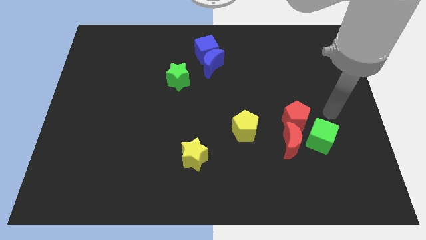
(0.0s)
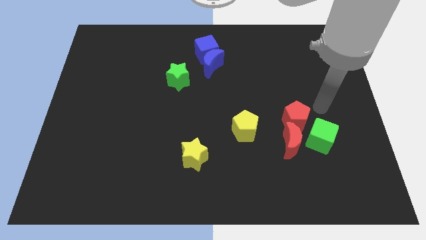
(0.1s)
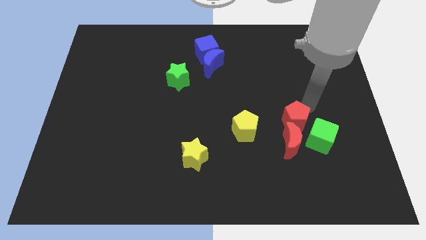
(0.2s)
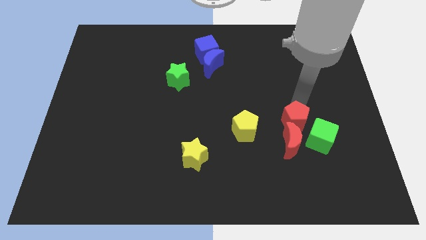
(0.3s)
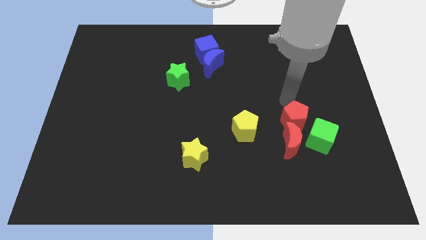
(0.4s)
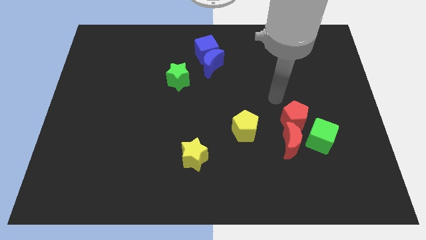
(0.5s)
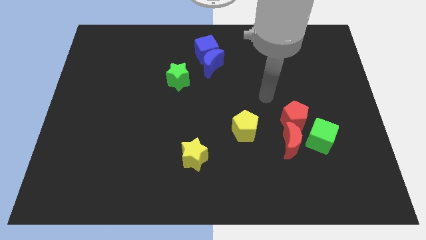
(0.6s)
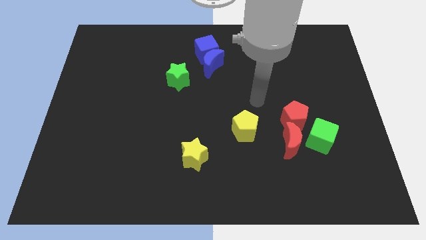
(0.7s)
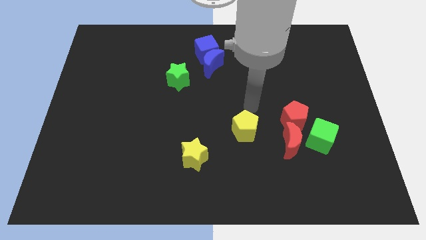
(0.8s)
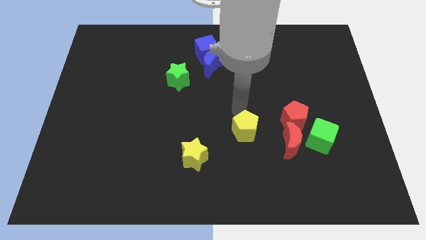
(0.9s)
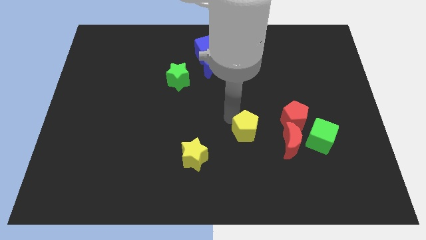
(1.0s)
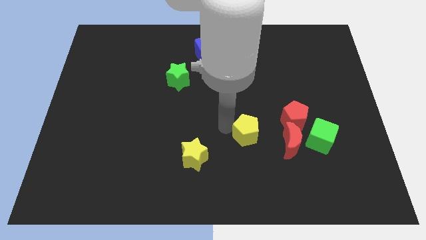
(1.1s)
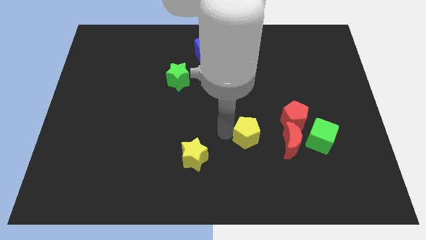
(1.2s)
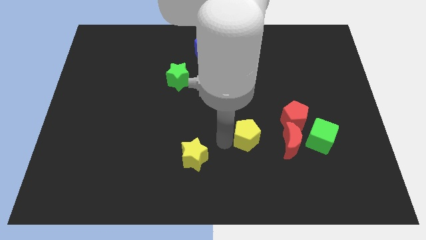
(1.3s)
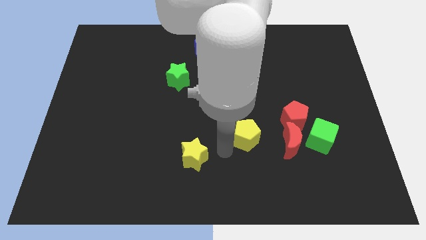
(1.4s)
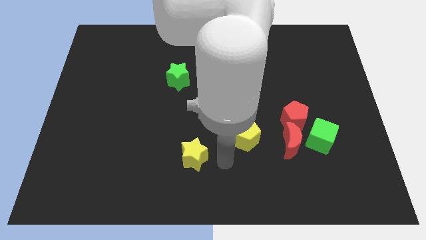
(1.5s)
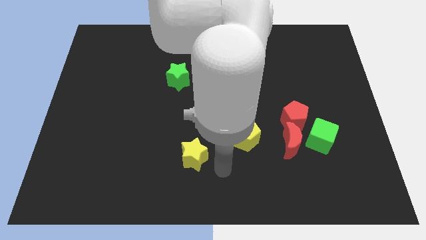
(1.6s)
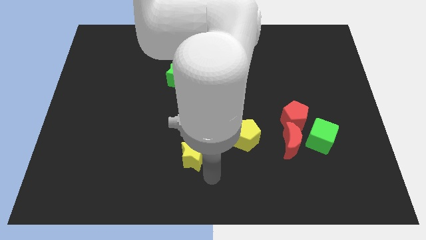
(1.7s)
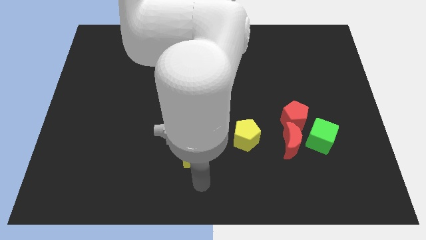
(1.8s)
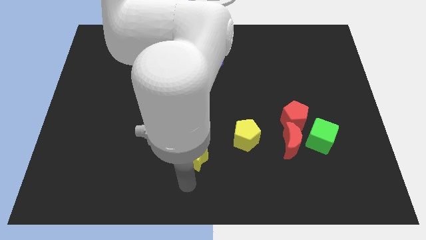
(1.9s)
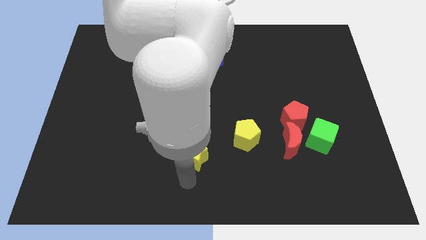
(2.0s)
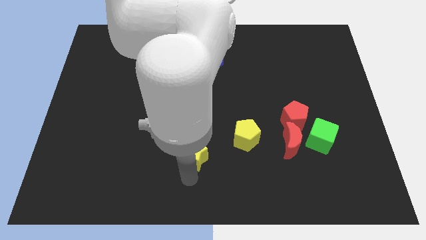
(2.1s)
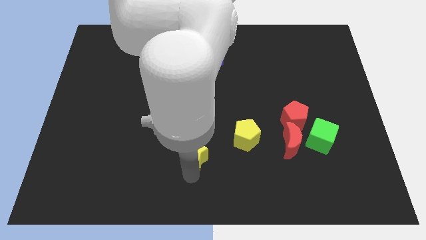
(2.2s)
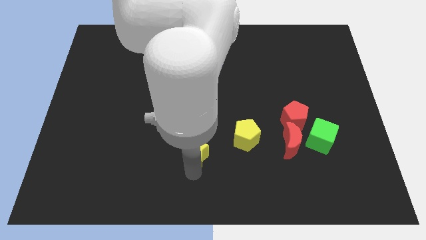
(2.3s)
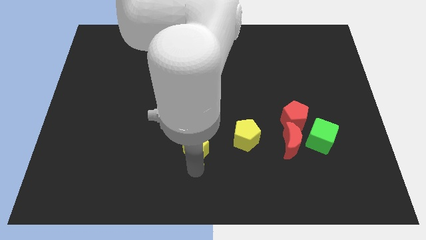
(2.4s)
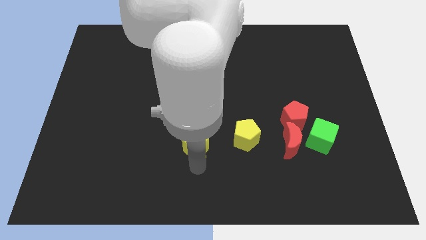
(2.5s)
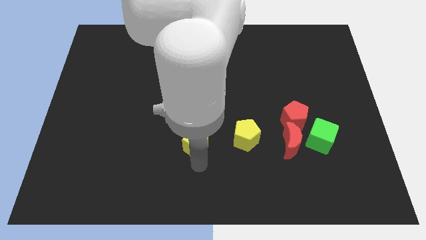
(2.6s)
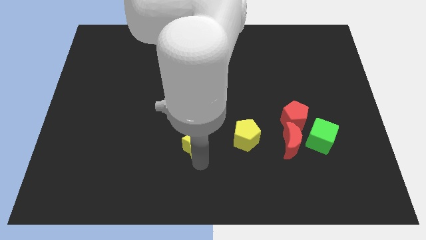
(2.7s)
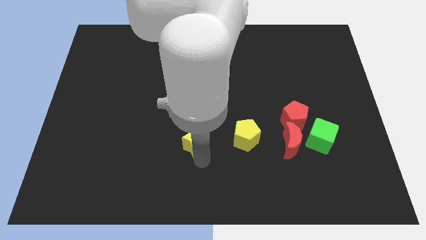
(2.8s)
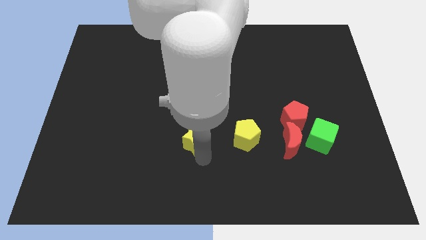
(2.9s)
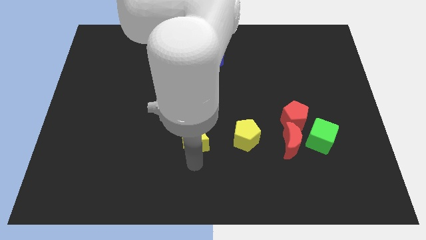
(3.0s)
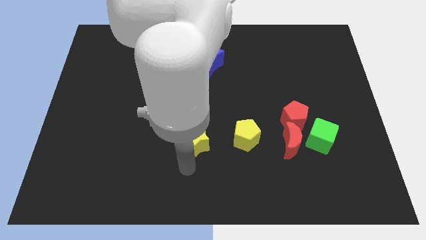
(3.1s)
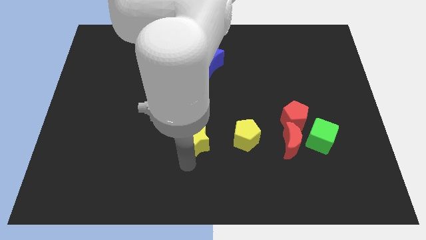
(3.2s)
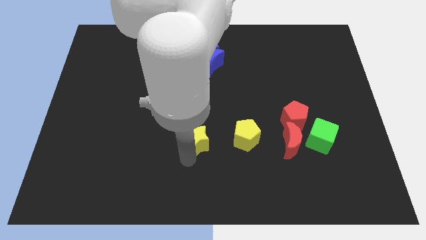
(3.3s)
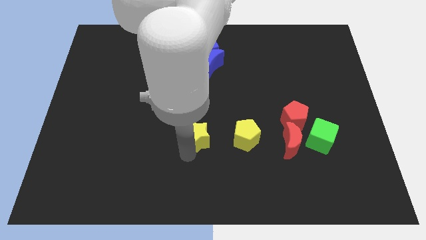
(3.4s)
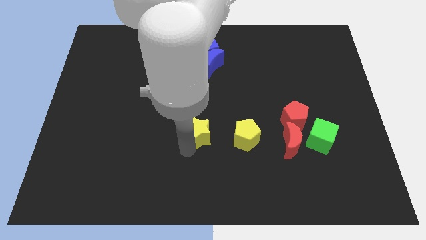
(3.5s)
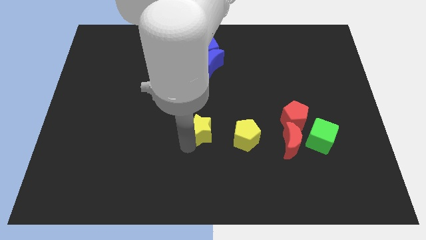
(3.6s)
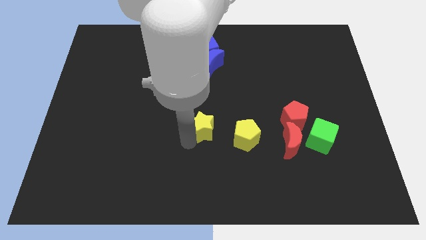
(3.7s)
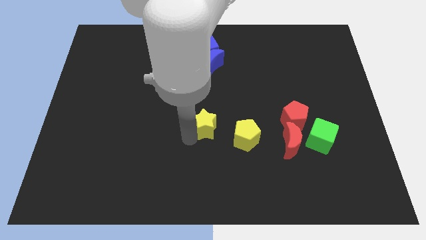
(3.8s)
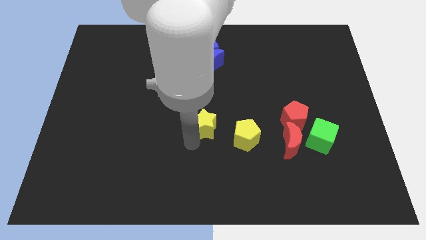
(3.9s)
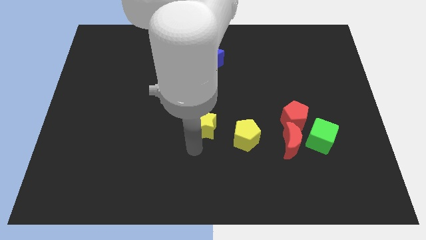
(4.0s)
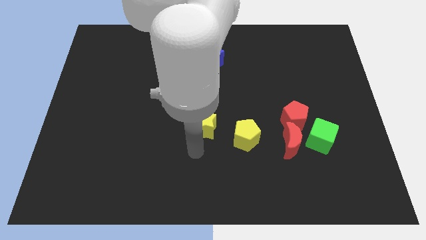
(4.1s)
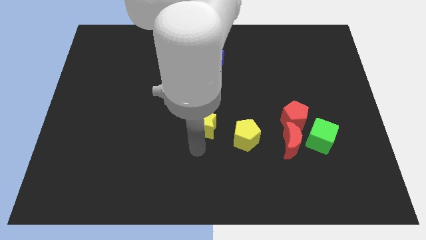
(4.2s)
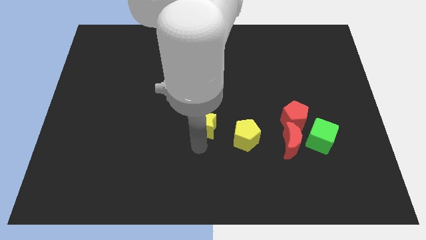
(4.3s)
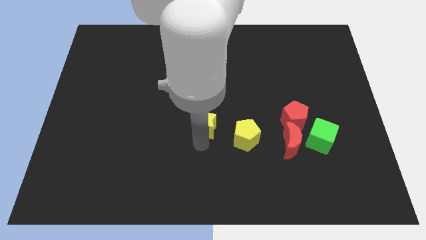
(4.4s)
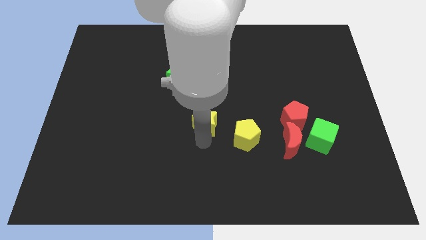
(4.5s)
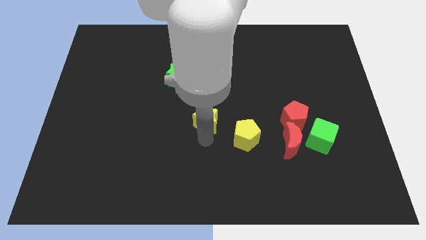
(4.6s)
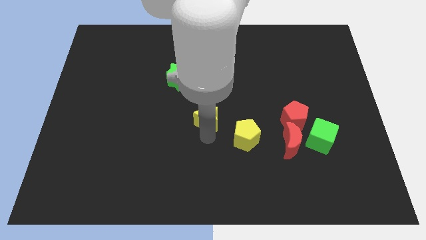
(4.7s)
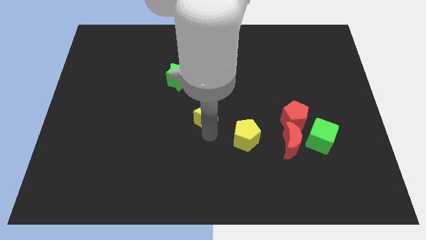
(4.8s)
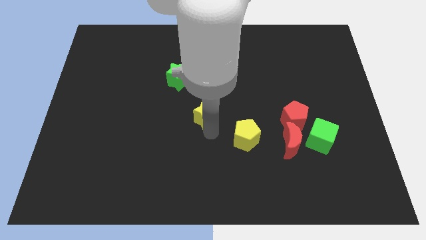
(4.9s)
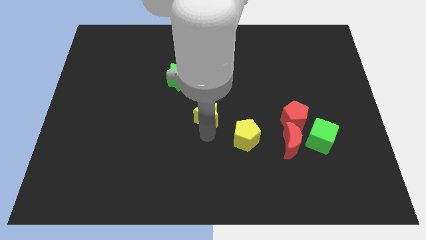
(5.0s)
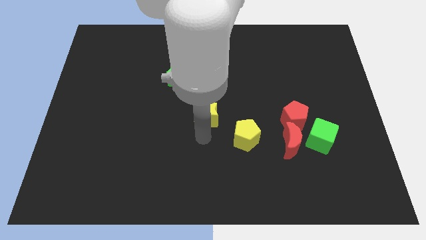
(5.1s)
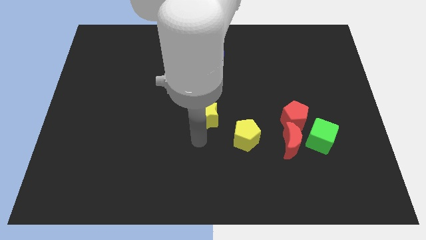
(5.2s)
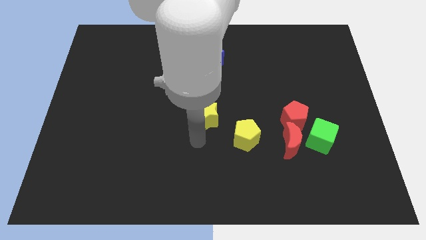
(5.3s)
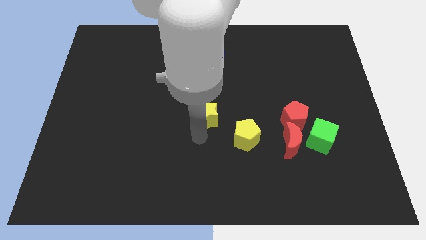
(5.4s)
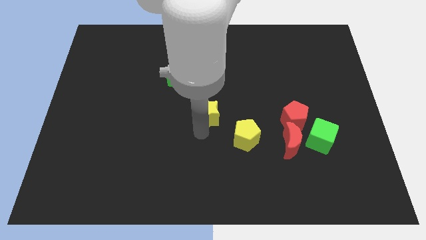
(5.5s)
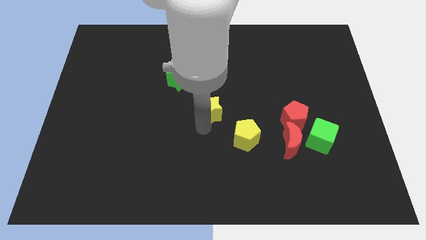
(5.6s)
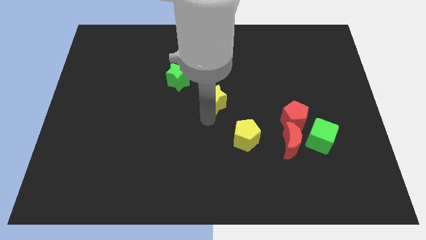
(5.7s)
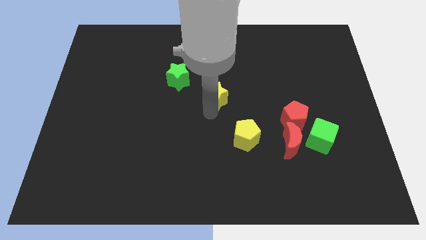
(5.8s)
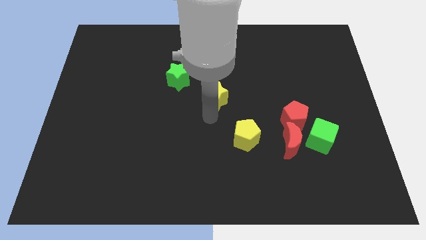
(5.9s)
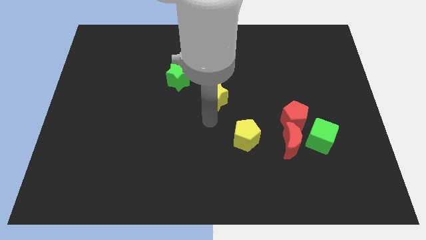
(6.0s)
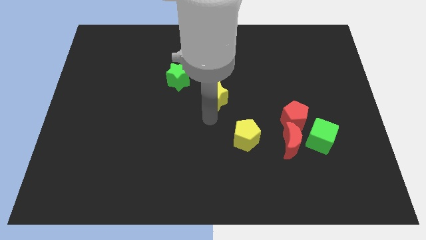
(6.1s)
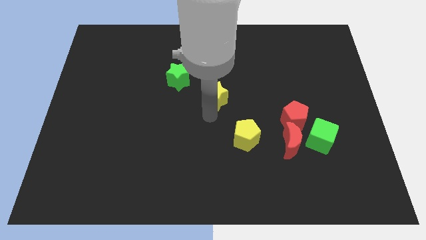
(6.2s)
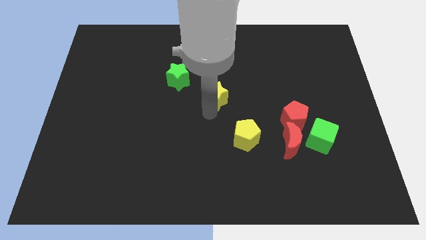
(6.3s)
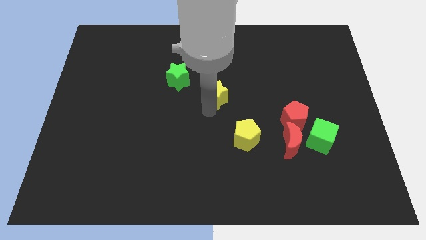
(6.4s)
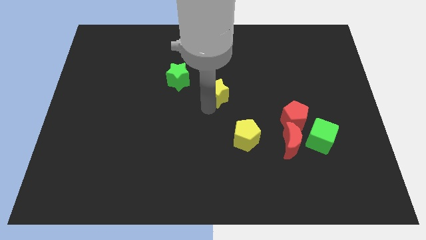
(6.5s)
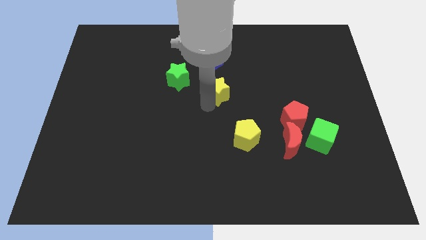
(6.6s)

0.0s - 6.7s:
push the yellow star just right of the green star

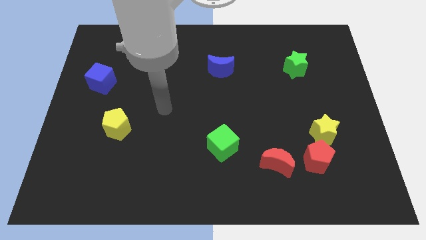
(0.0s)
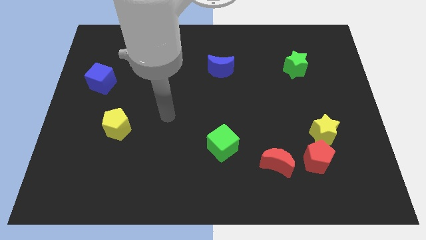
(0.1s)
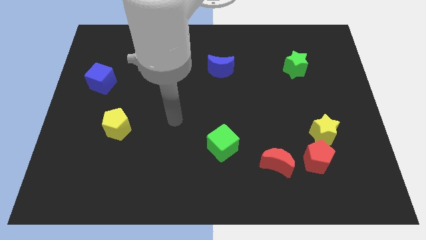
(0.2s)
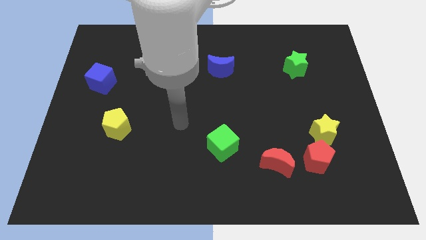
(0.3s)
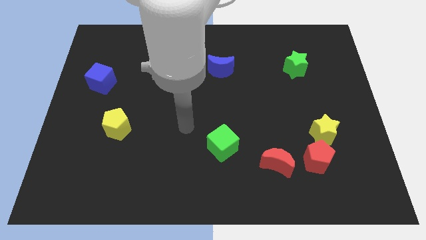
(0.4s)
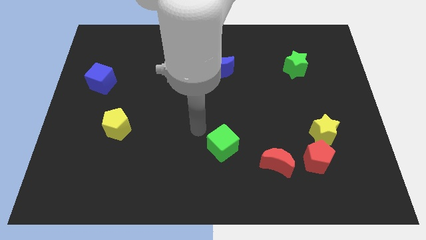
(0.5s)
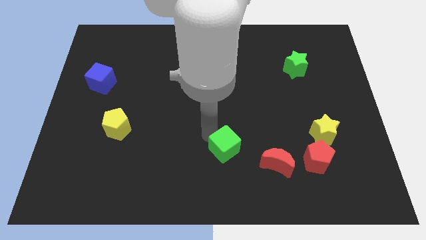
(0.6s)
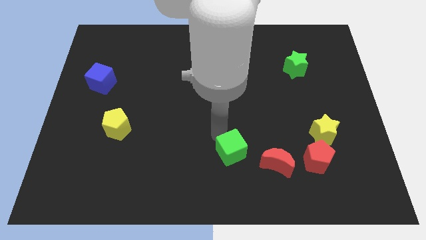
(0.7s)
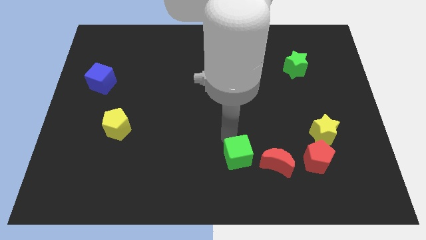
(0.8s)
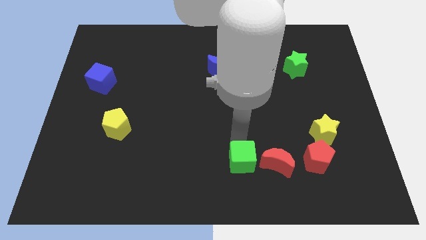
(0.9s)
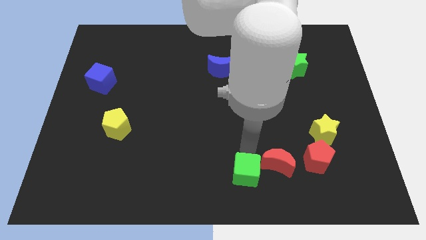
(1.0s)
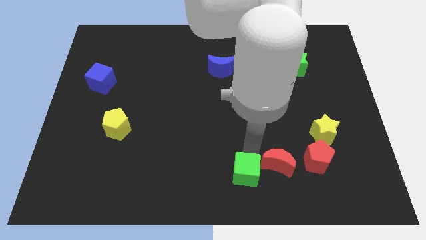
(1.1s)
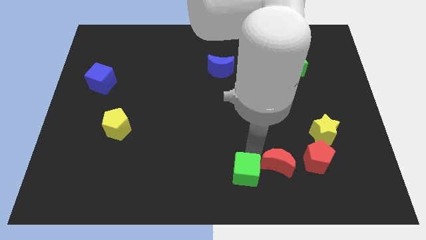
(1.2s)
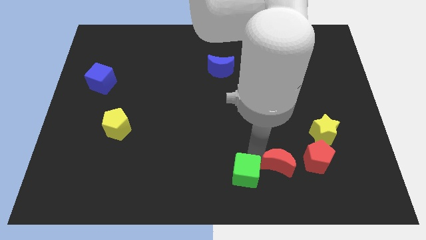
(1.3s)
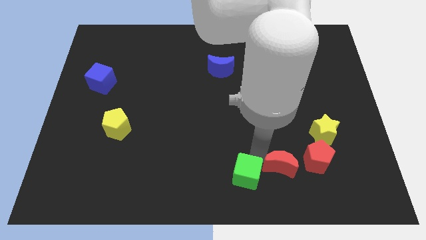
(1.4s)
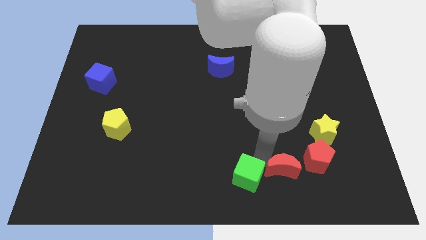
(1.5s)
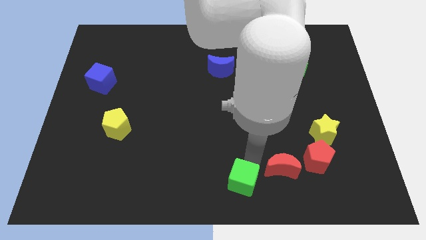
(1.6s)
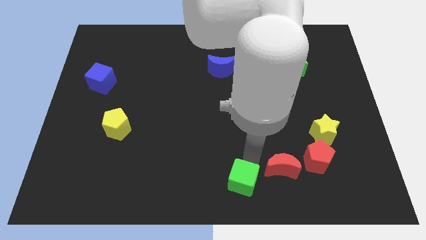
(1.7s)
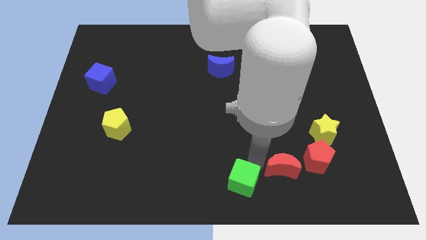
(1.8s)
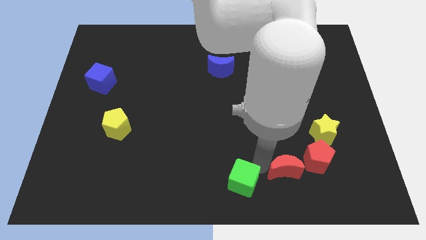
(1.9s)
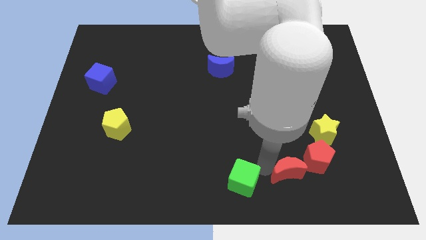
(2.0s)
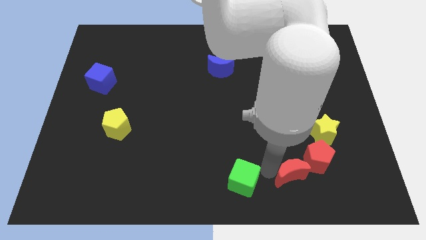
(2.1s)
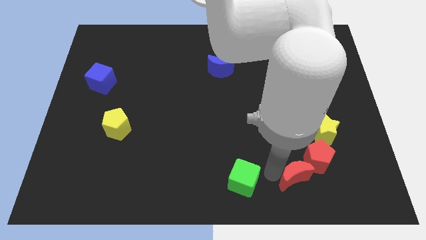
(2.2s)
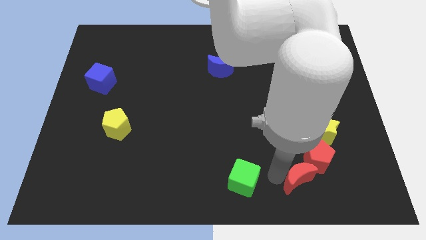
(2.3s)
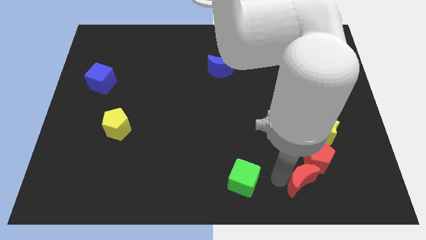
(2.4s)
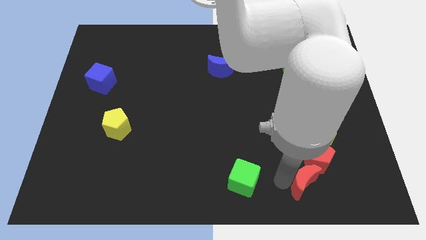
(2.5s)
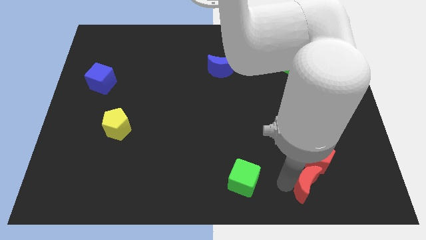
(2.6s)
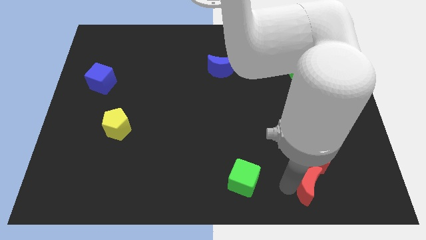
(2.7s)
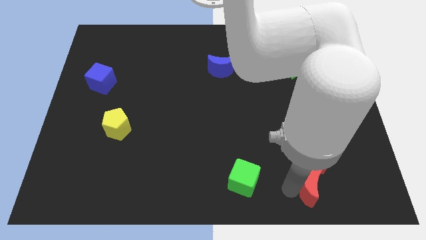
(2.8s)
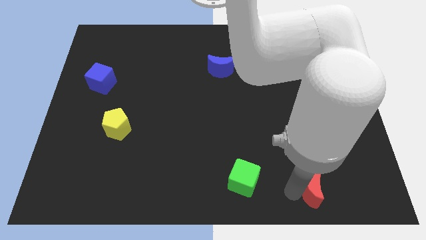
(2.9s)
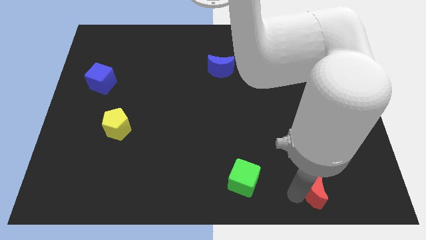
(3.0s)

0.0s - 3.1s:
slide the red moon below the yellow star
